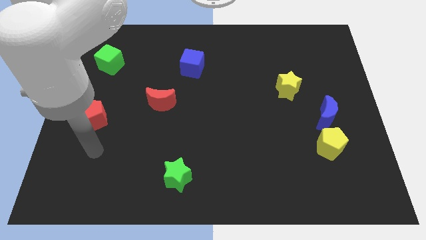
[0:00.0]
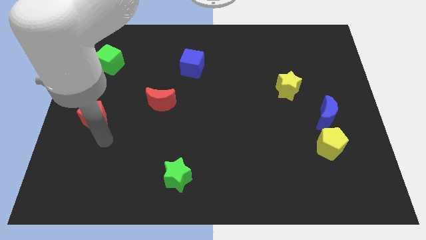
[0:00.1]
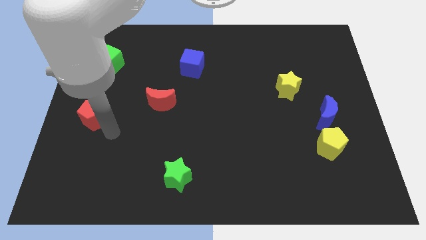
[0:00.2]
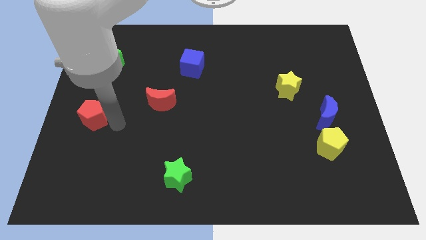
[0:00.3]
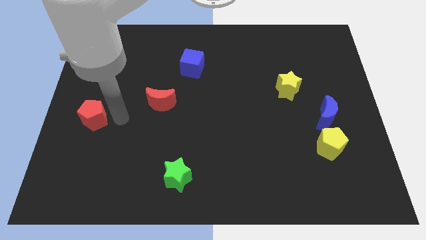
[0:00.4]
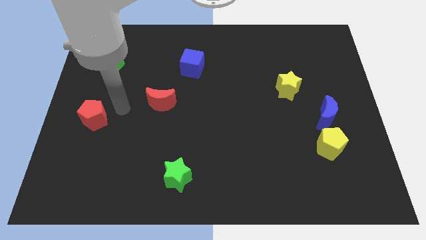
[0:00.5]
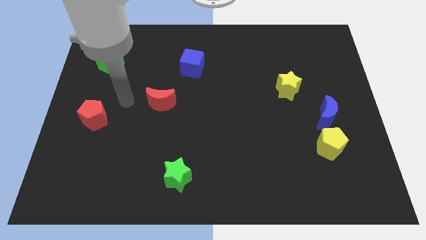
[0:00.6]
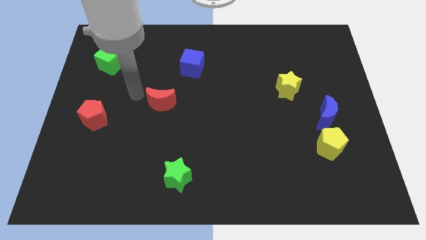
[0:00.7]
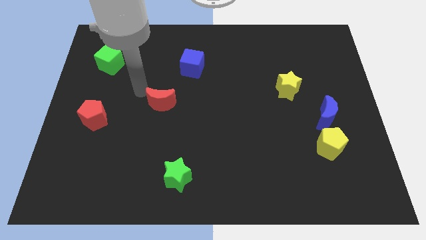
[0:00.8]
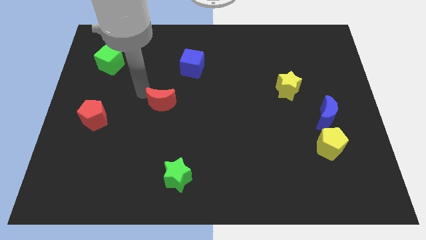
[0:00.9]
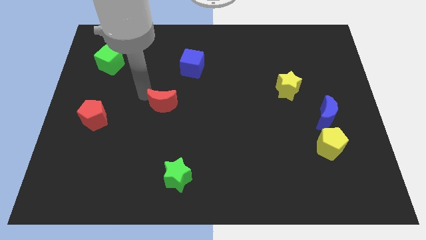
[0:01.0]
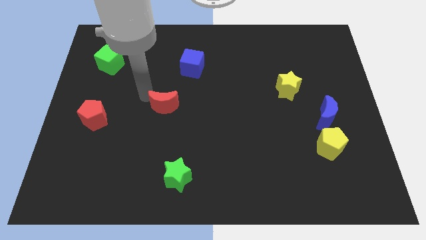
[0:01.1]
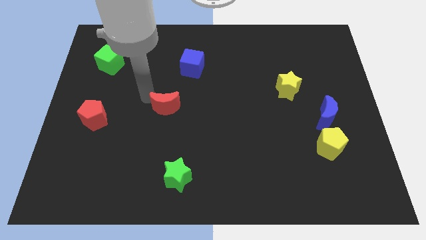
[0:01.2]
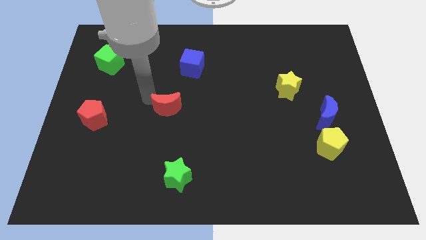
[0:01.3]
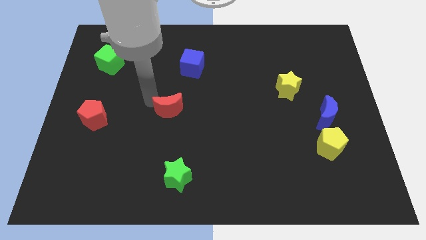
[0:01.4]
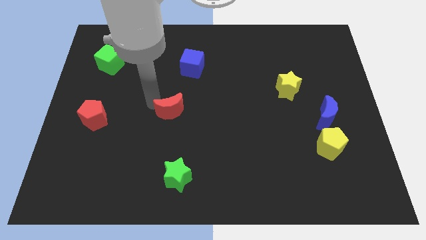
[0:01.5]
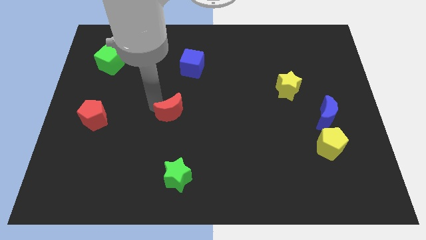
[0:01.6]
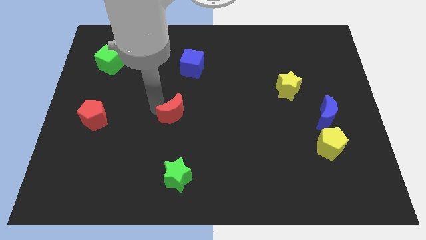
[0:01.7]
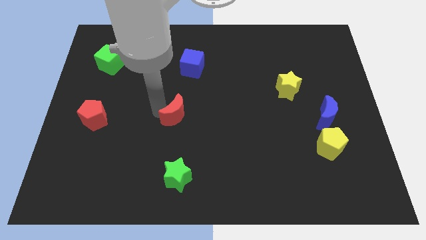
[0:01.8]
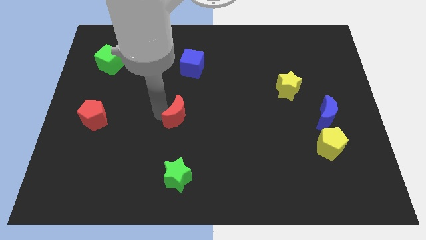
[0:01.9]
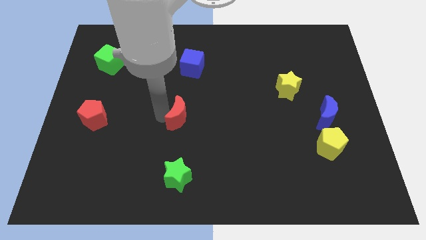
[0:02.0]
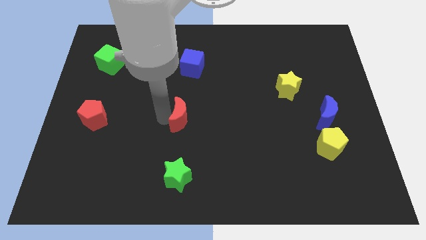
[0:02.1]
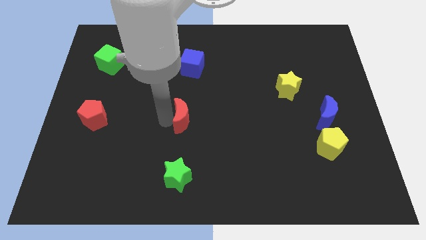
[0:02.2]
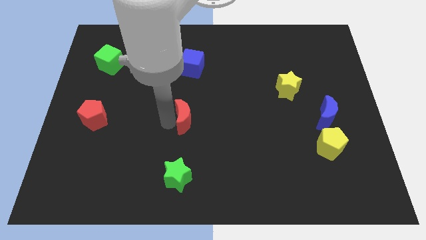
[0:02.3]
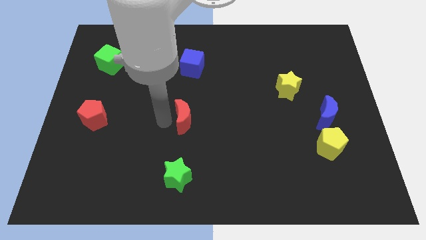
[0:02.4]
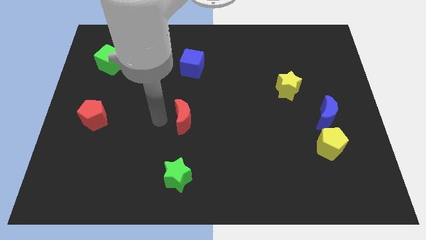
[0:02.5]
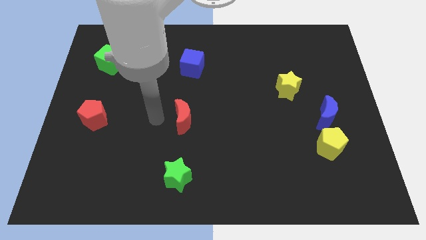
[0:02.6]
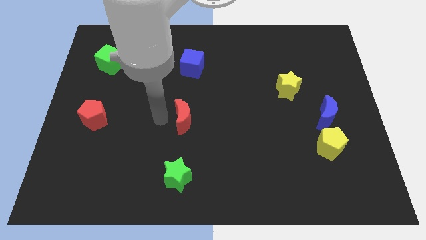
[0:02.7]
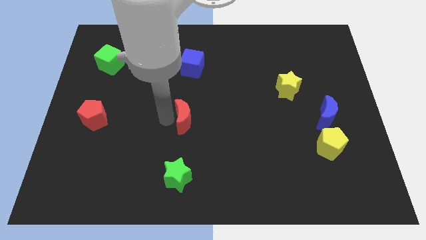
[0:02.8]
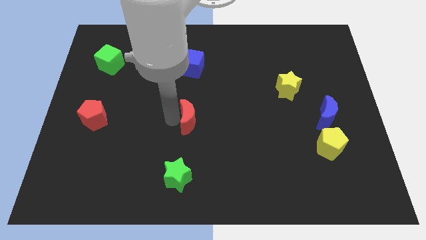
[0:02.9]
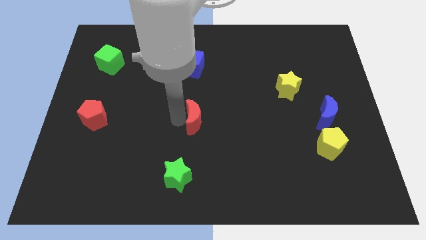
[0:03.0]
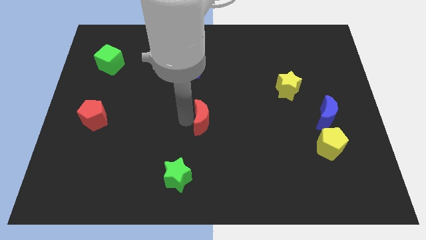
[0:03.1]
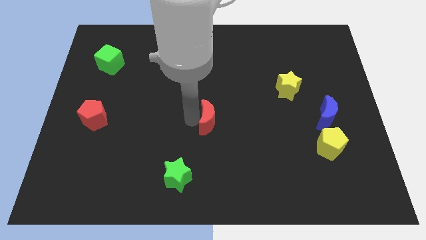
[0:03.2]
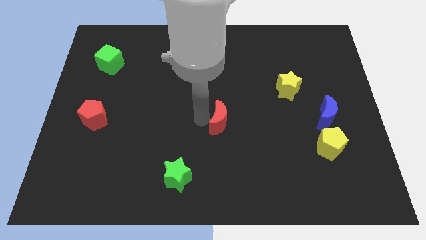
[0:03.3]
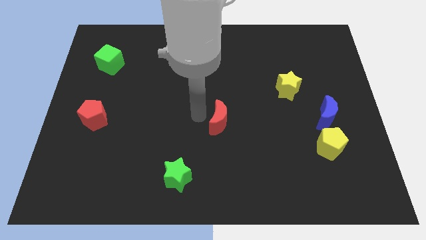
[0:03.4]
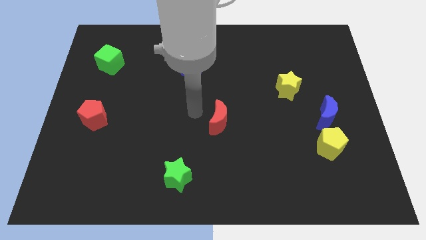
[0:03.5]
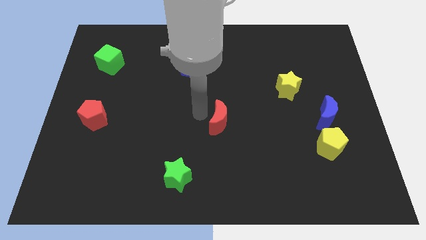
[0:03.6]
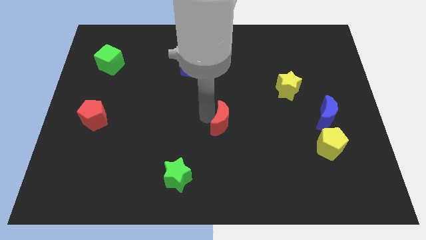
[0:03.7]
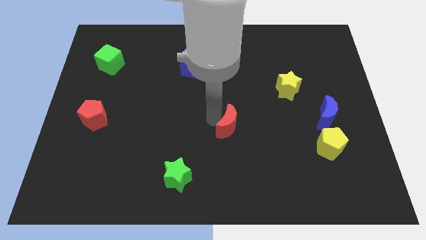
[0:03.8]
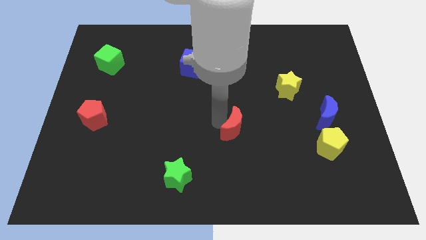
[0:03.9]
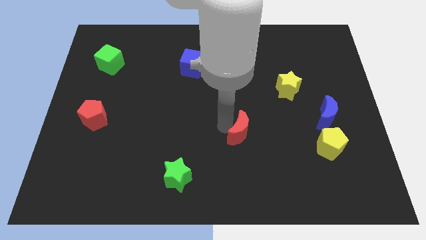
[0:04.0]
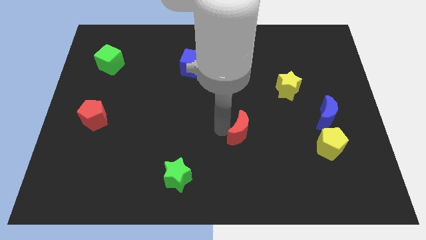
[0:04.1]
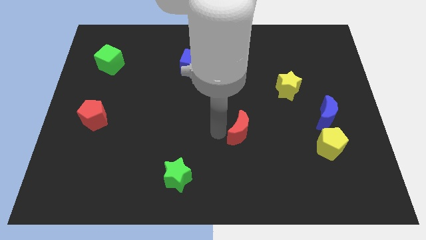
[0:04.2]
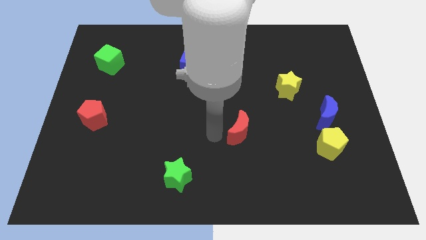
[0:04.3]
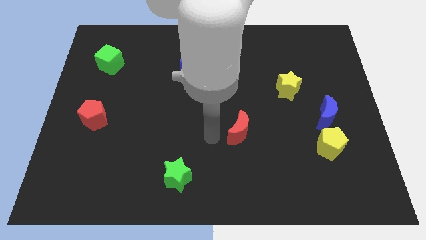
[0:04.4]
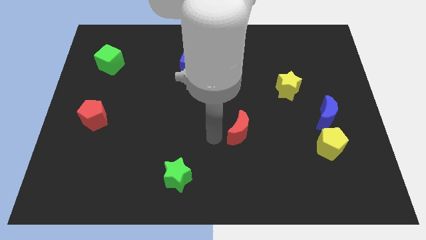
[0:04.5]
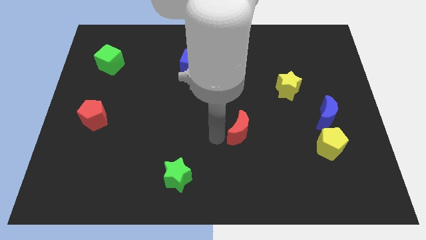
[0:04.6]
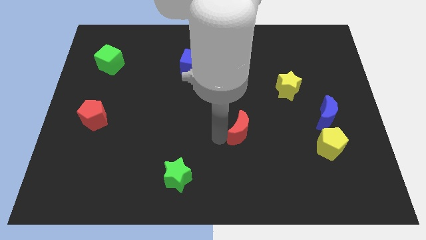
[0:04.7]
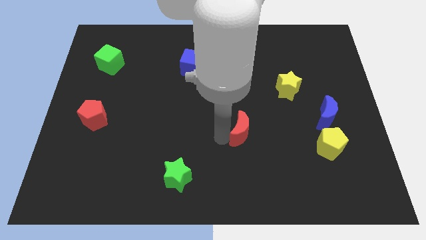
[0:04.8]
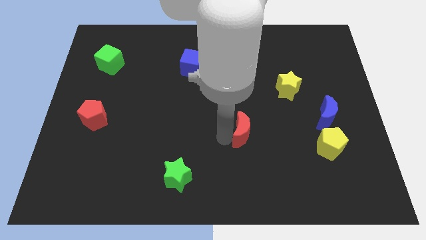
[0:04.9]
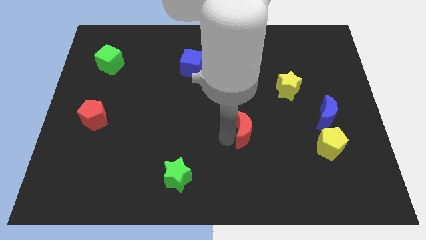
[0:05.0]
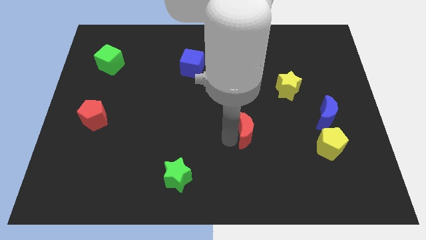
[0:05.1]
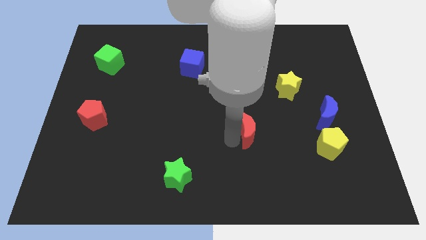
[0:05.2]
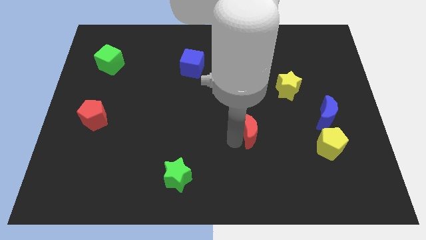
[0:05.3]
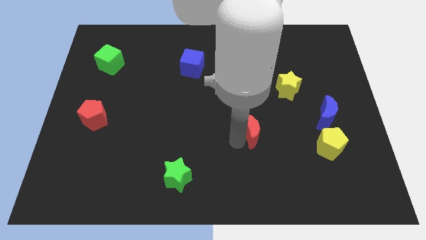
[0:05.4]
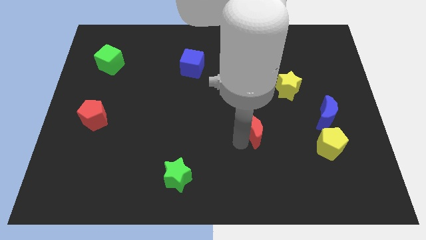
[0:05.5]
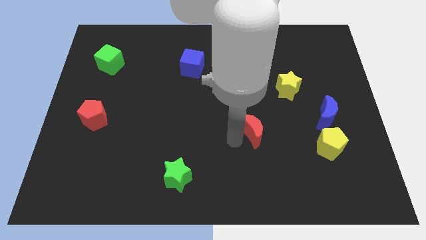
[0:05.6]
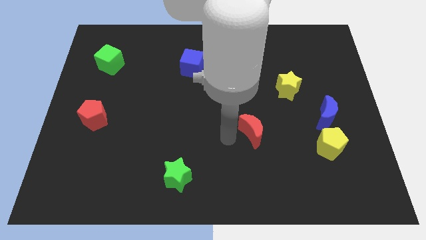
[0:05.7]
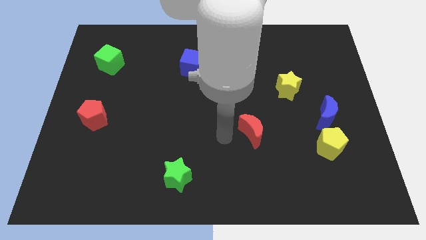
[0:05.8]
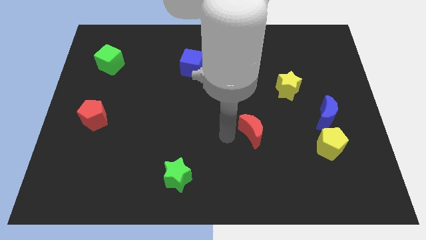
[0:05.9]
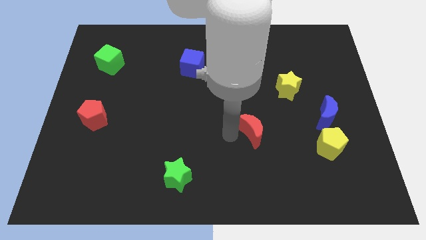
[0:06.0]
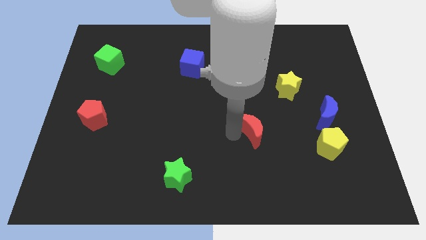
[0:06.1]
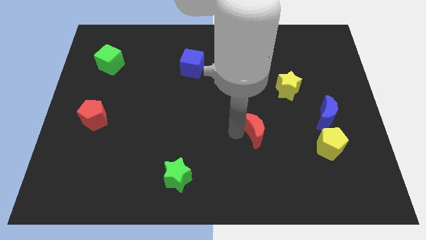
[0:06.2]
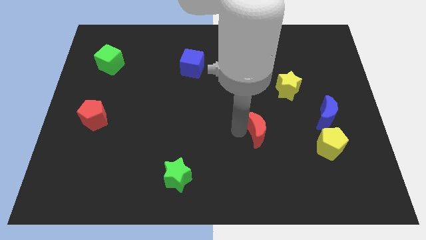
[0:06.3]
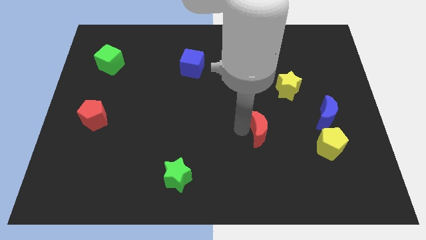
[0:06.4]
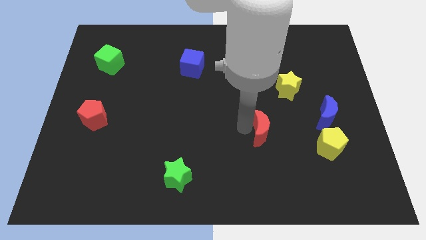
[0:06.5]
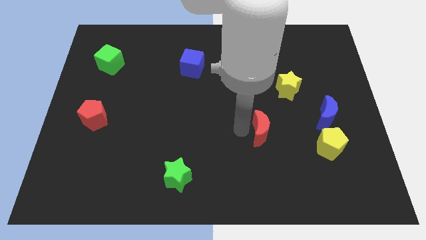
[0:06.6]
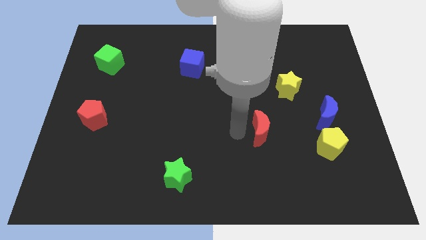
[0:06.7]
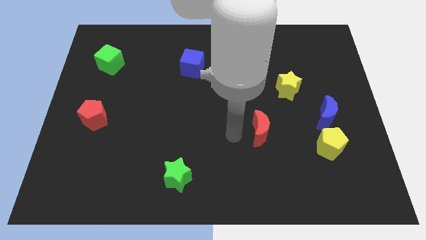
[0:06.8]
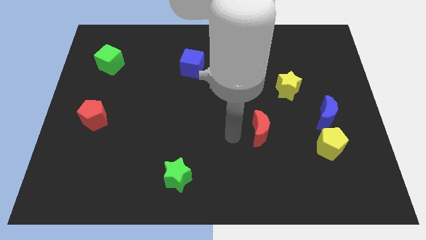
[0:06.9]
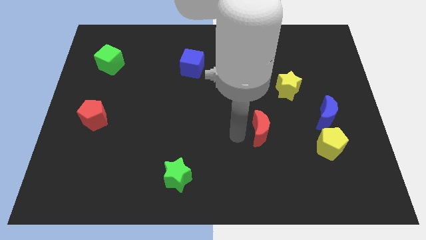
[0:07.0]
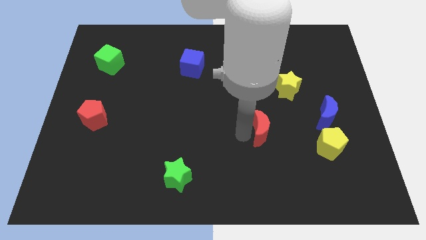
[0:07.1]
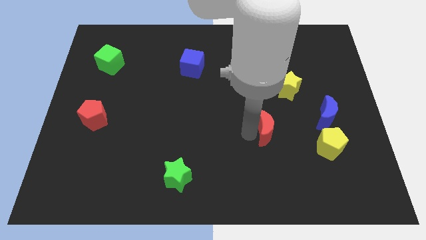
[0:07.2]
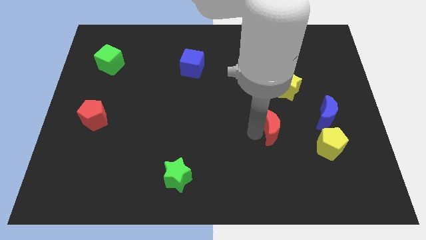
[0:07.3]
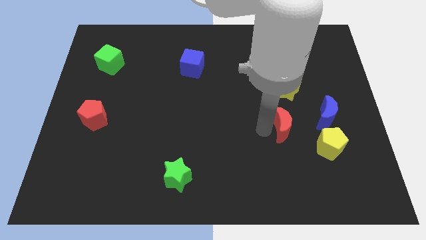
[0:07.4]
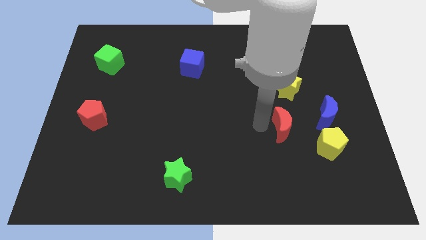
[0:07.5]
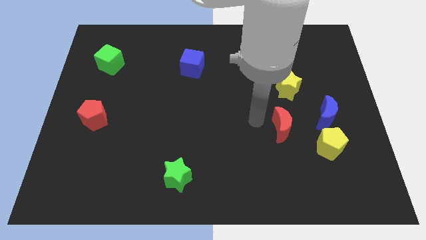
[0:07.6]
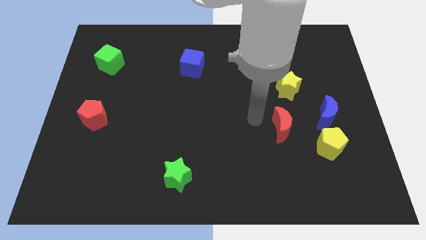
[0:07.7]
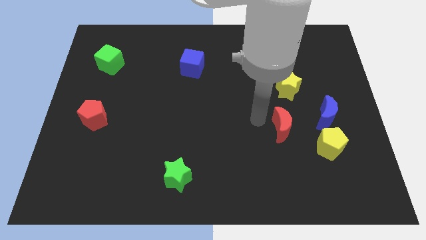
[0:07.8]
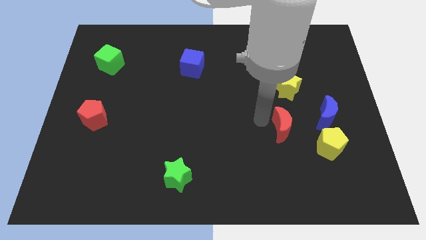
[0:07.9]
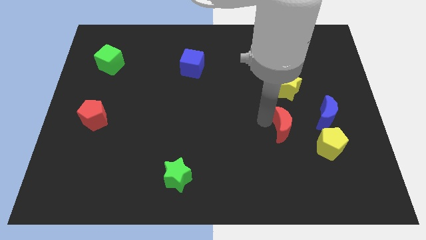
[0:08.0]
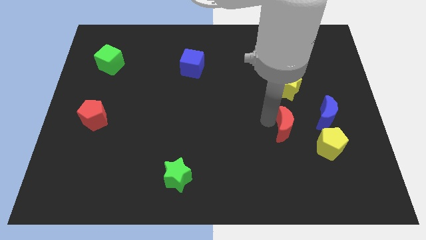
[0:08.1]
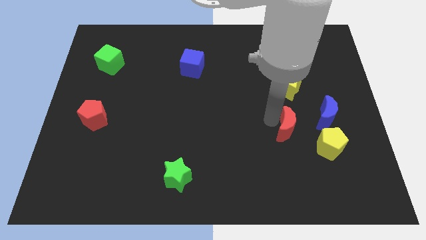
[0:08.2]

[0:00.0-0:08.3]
put the red moon to the bottom left of the blue moon
